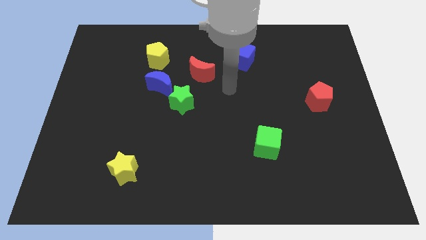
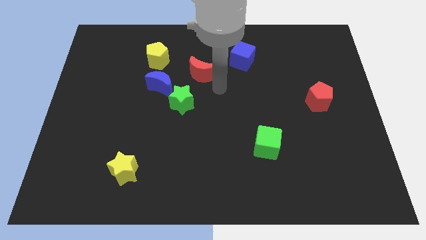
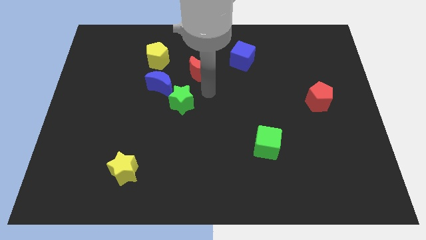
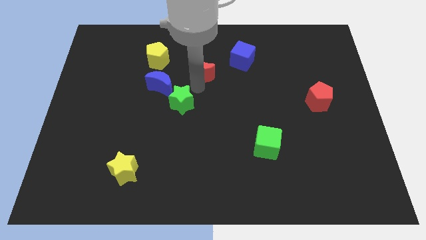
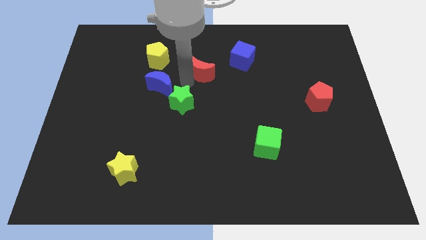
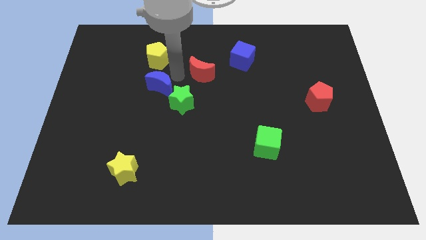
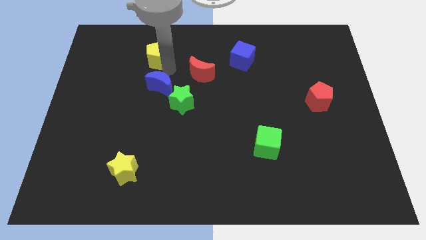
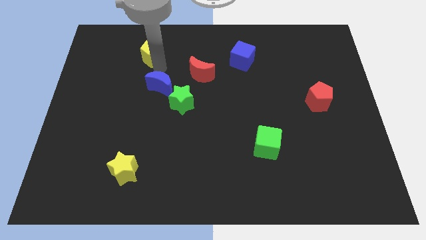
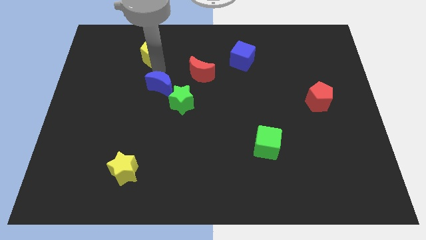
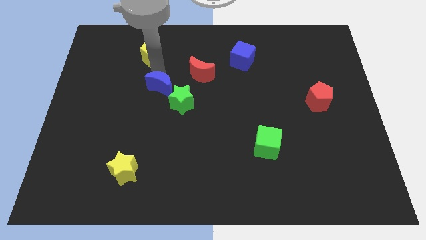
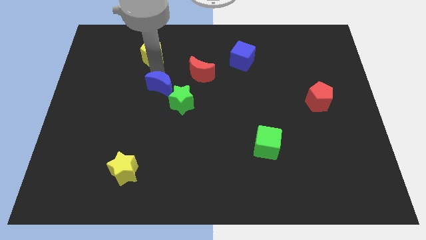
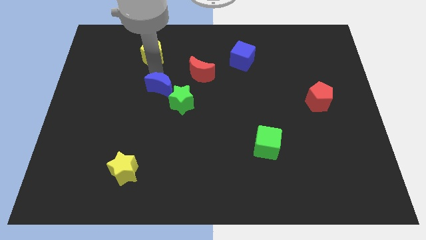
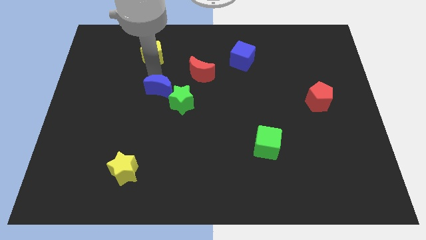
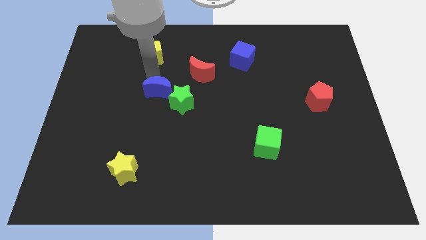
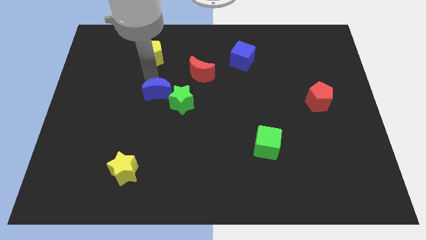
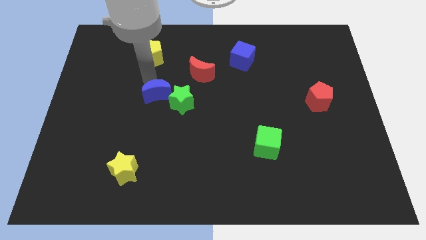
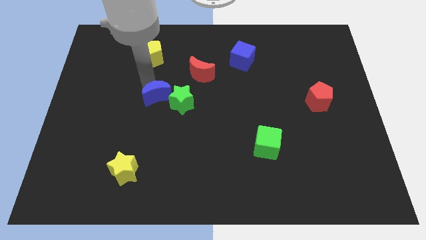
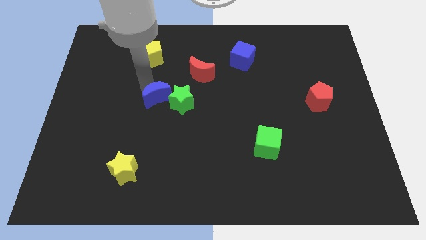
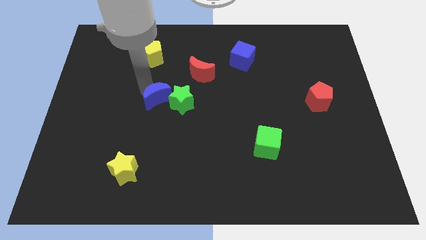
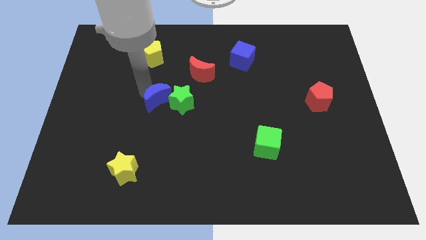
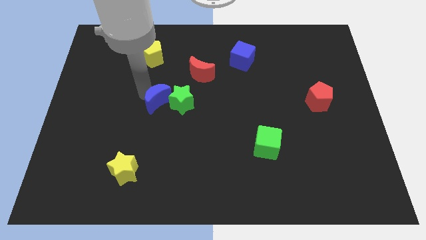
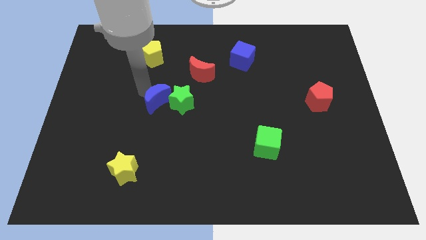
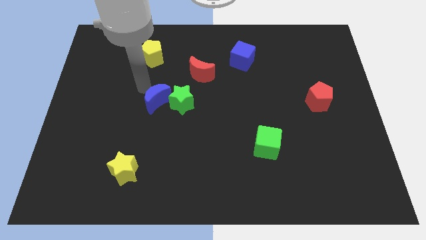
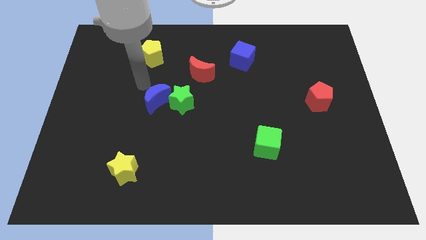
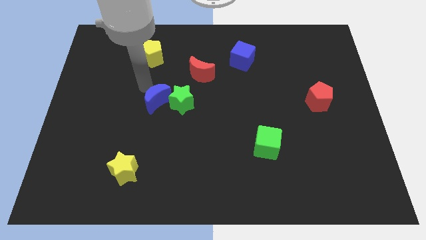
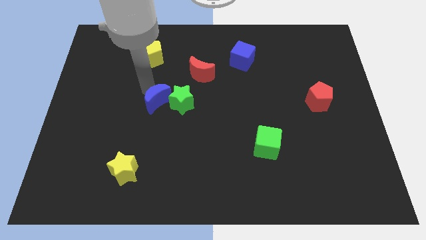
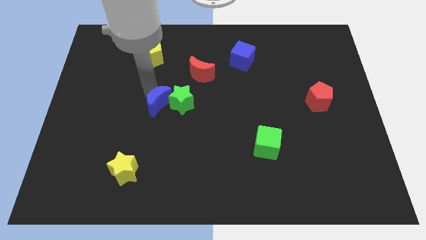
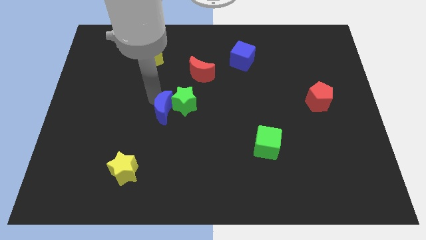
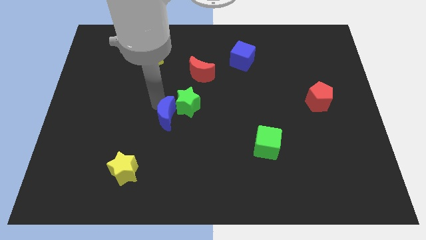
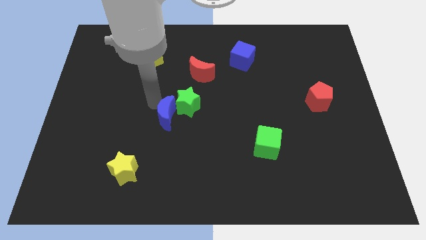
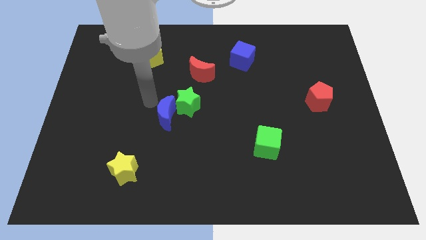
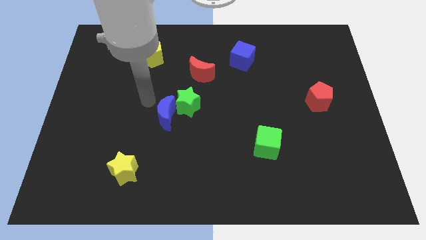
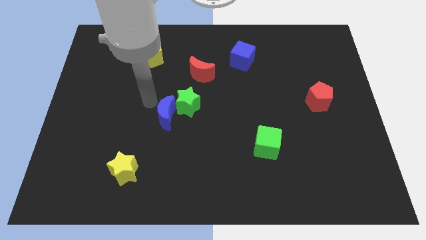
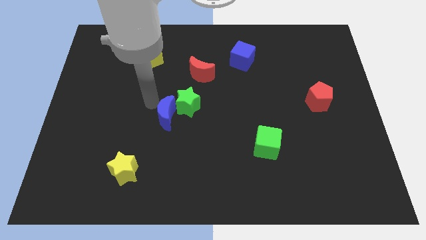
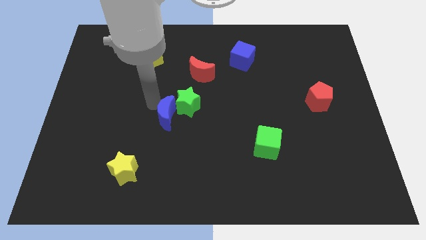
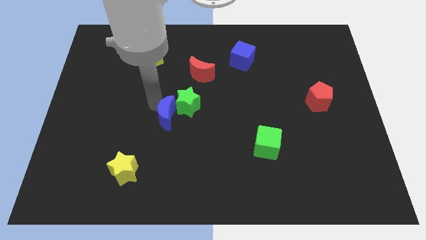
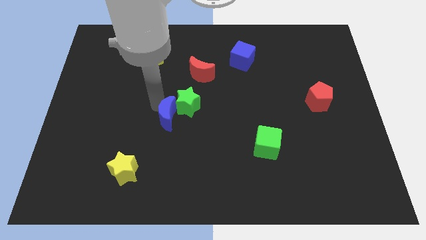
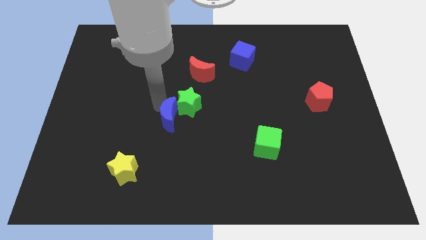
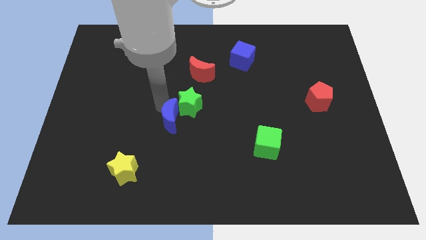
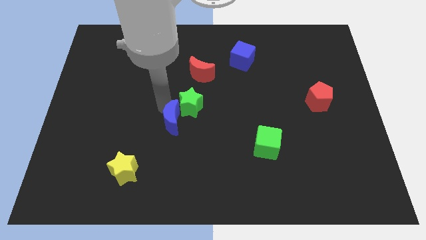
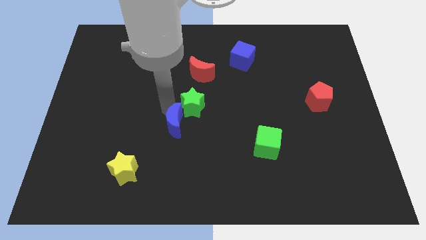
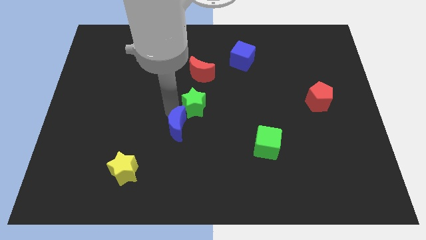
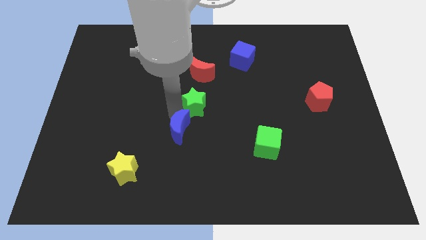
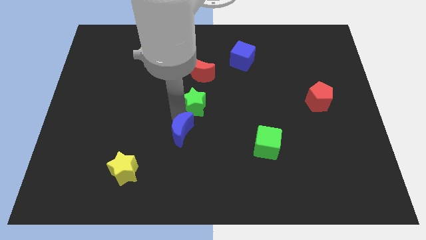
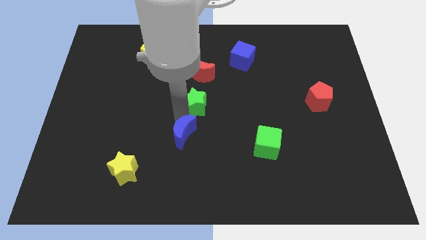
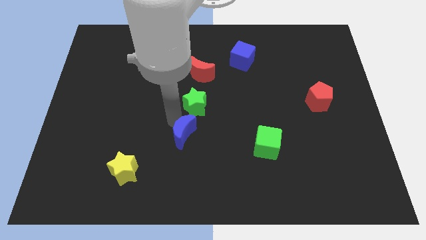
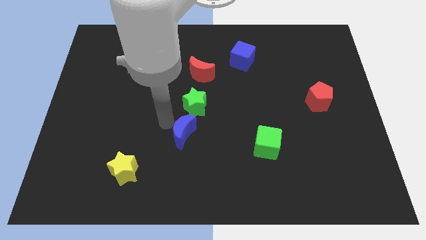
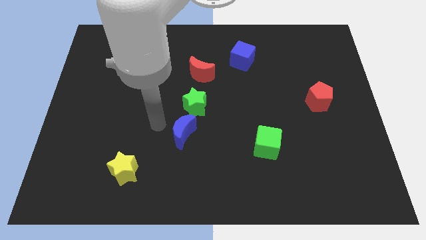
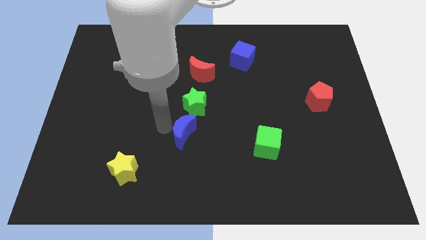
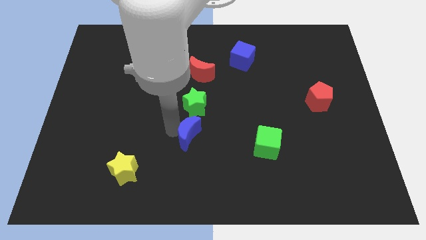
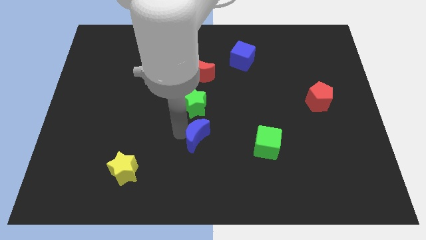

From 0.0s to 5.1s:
slide the blue moon just left of the green cube

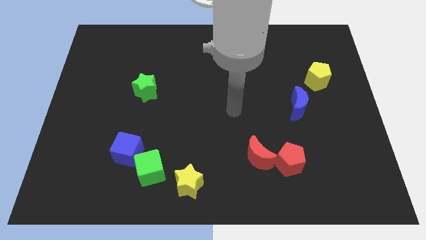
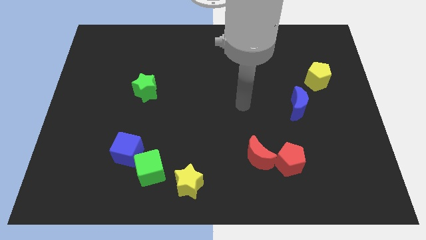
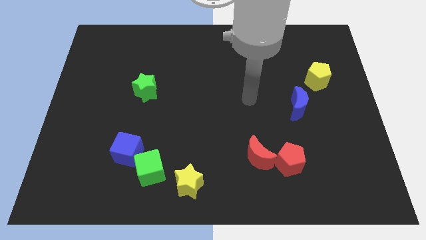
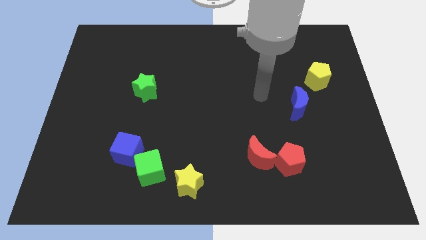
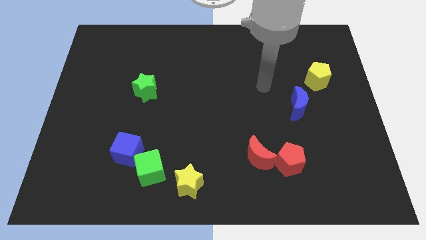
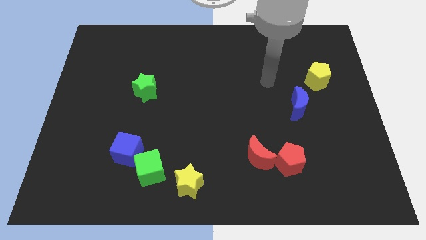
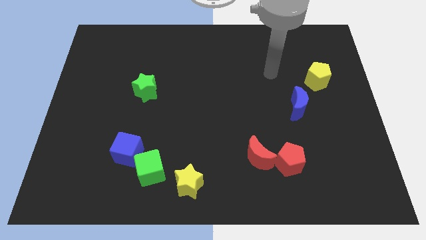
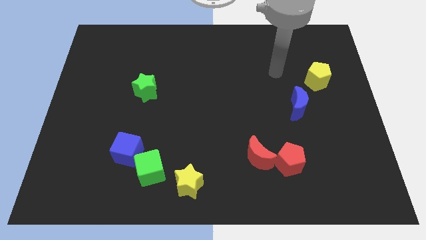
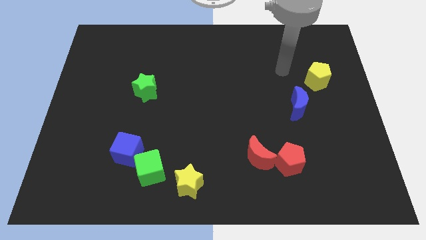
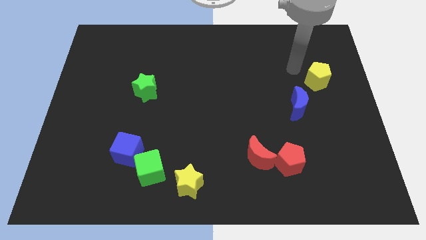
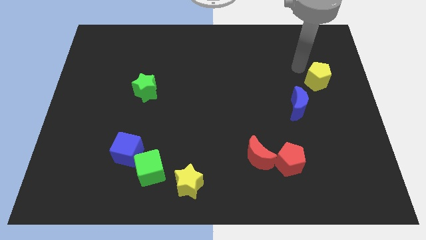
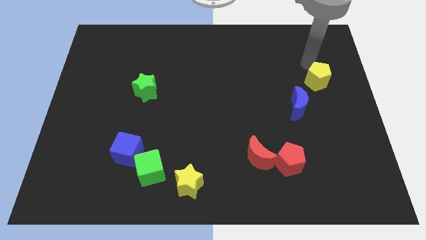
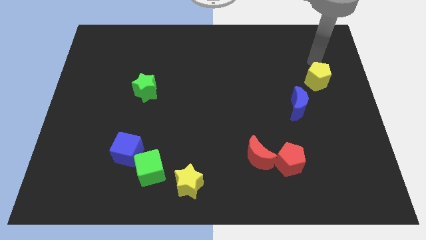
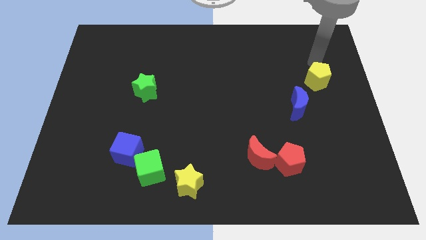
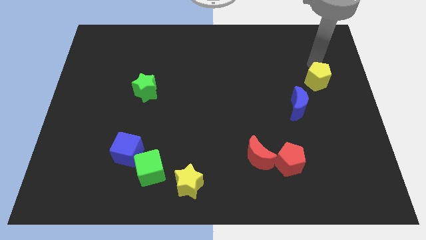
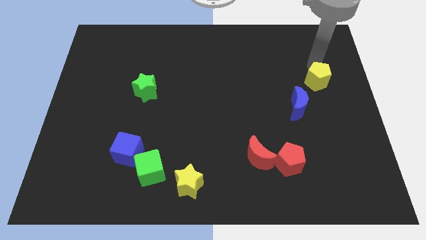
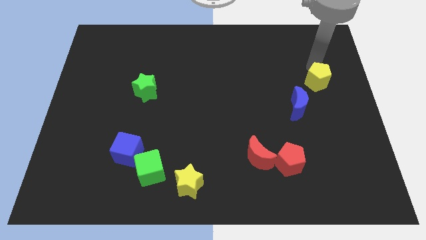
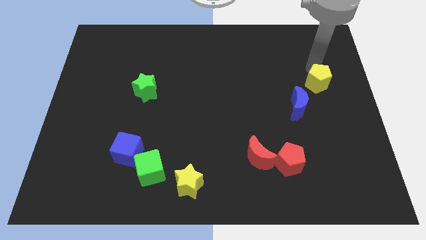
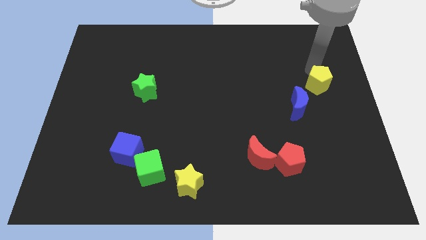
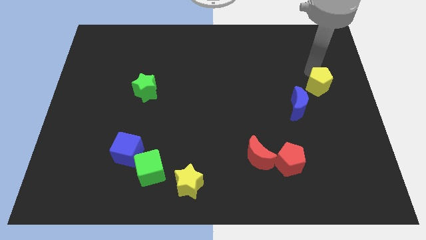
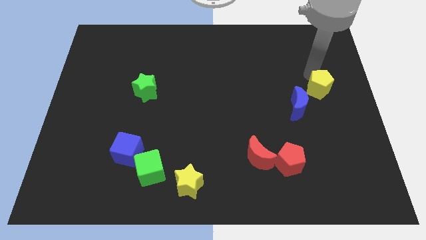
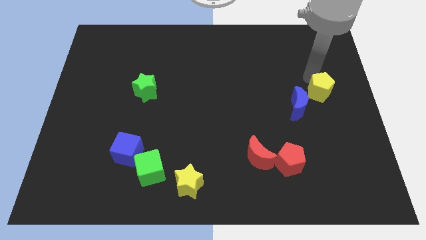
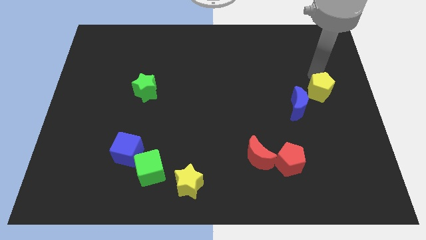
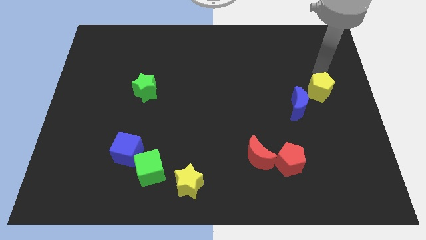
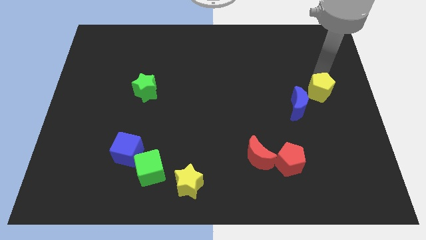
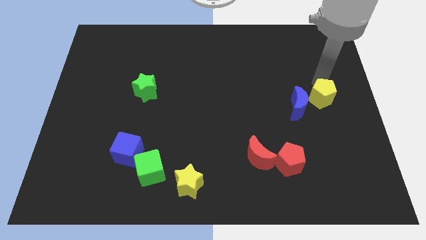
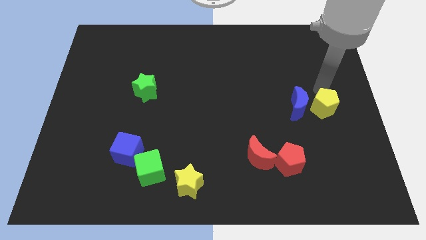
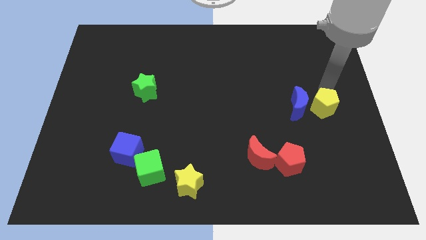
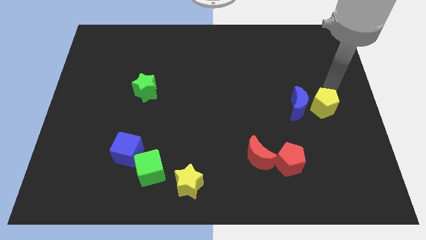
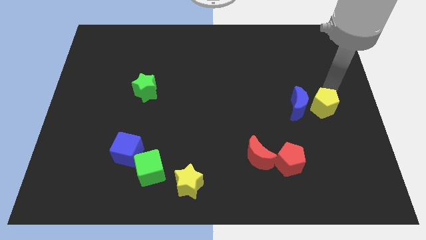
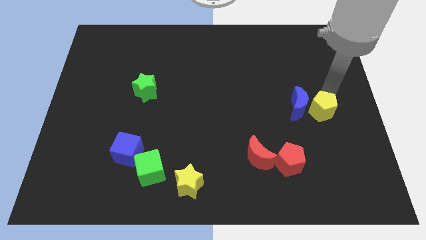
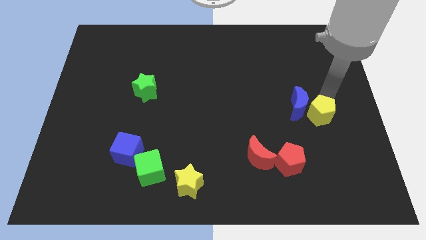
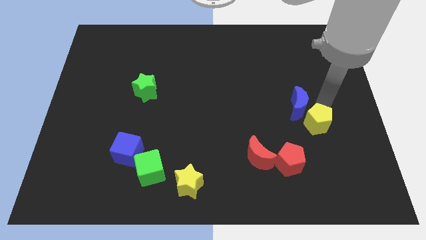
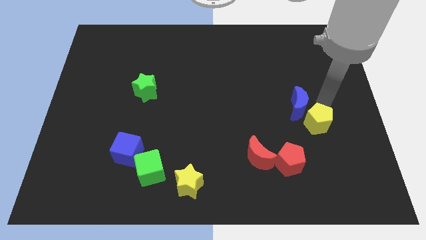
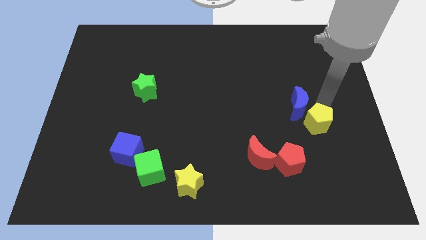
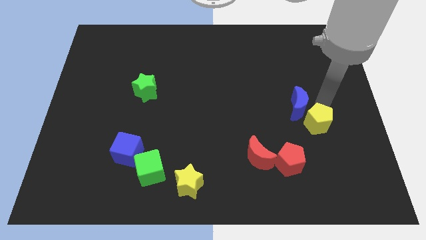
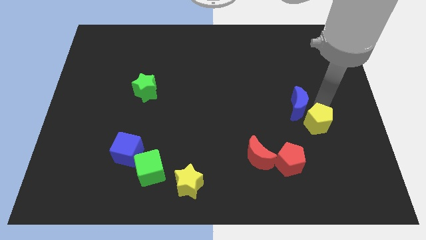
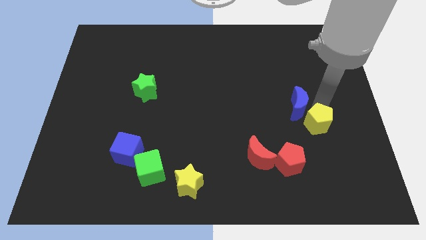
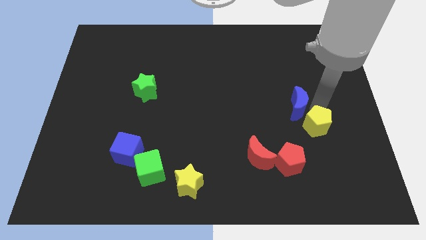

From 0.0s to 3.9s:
put the yellow pentagon diagonally up and to the right of the red pentagon
